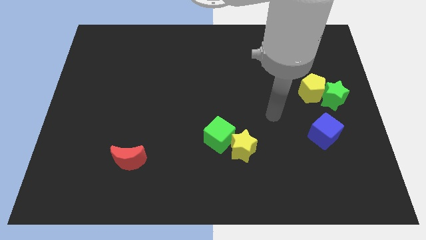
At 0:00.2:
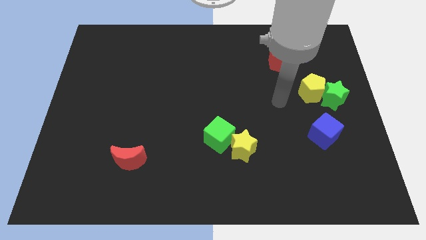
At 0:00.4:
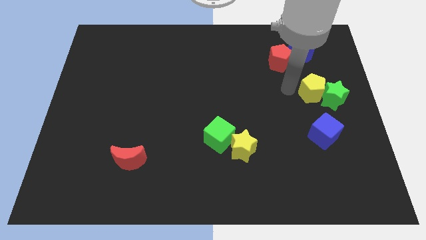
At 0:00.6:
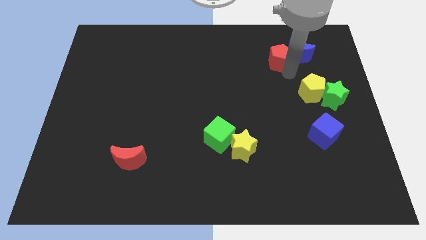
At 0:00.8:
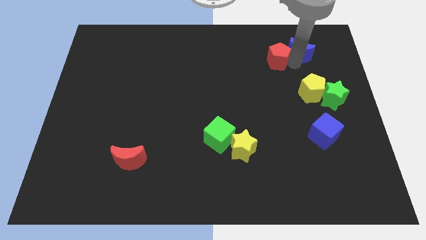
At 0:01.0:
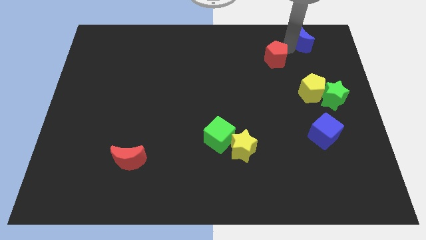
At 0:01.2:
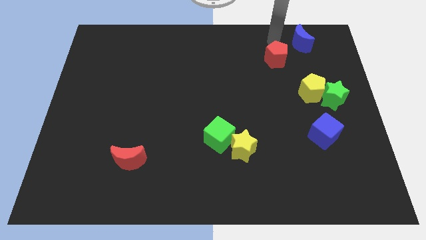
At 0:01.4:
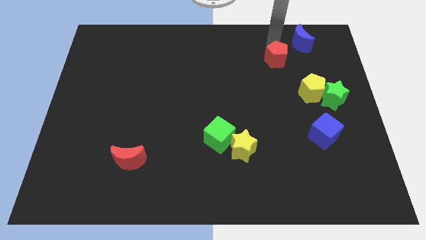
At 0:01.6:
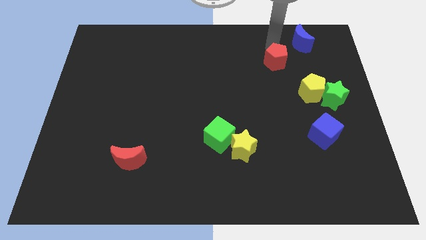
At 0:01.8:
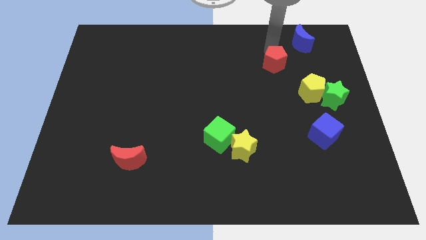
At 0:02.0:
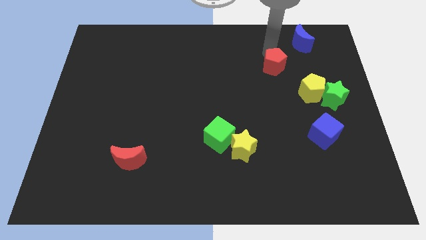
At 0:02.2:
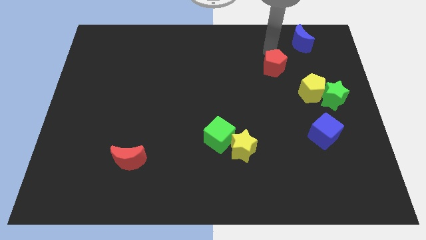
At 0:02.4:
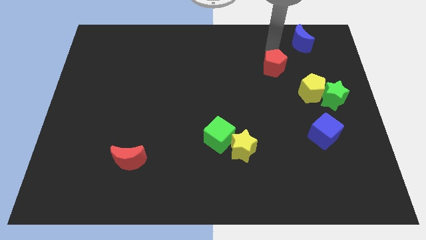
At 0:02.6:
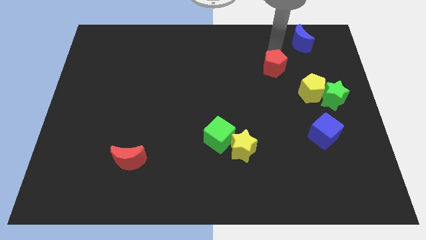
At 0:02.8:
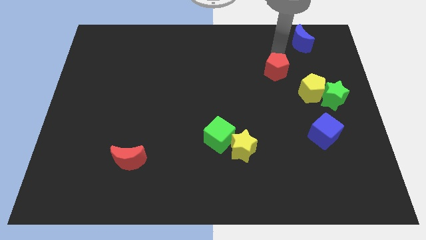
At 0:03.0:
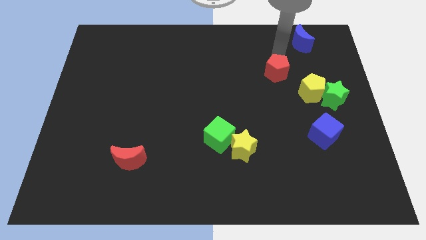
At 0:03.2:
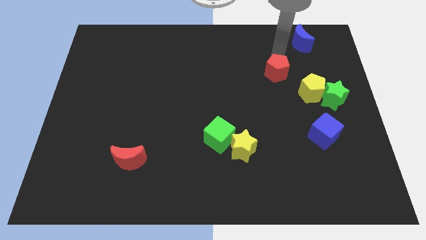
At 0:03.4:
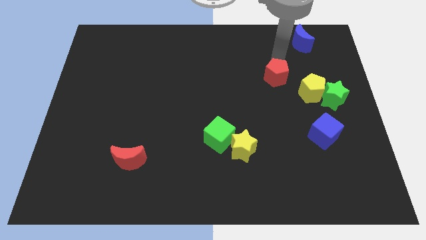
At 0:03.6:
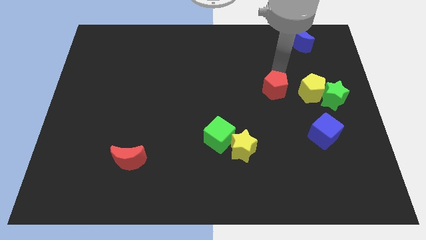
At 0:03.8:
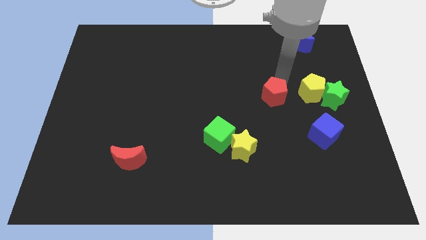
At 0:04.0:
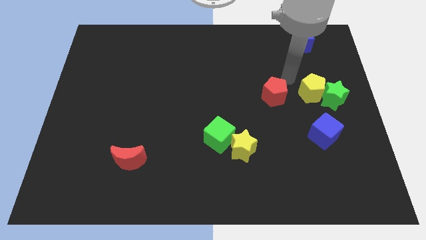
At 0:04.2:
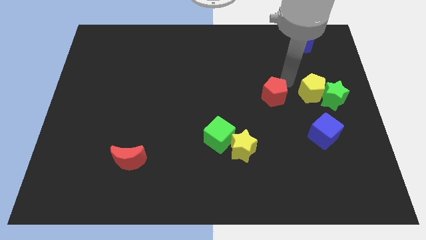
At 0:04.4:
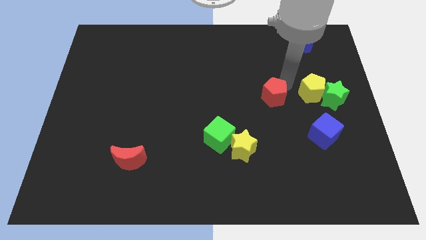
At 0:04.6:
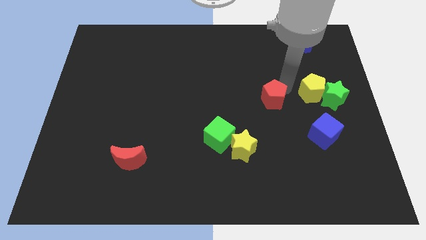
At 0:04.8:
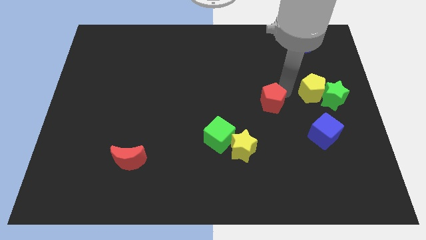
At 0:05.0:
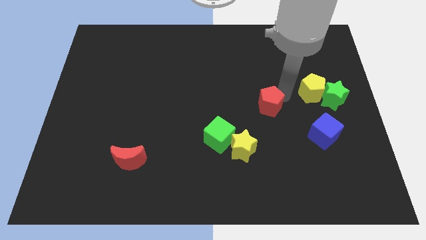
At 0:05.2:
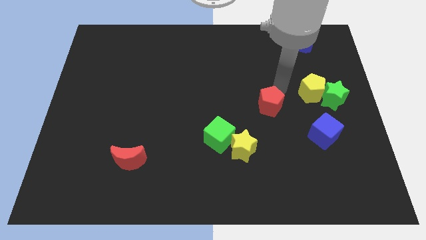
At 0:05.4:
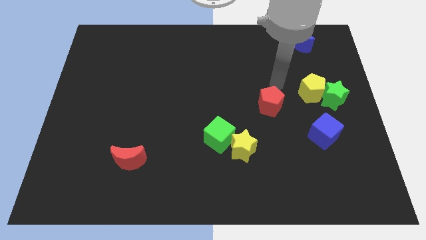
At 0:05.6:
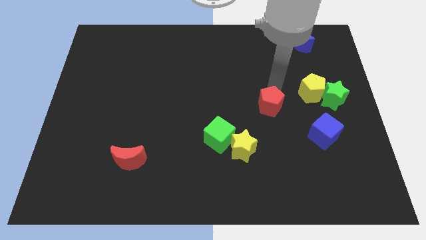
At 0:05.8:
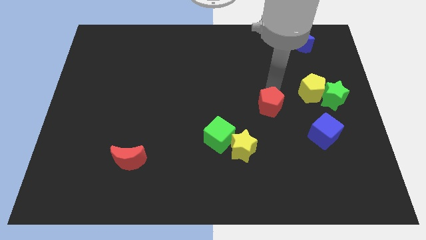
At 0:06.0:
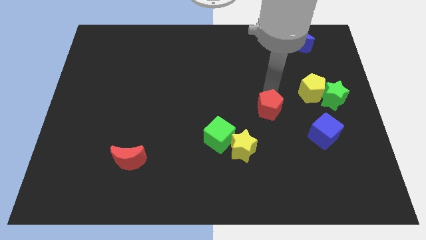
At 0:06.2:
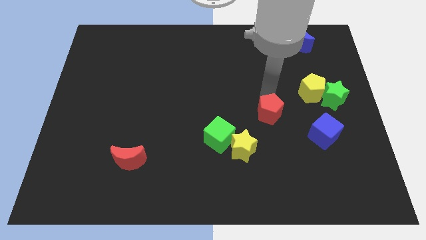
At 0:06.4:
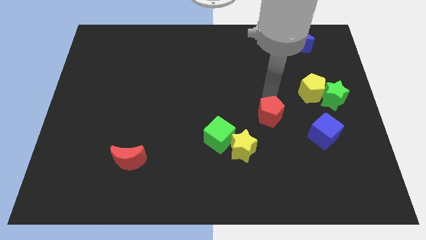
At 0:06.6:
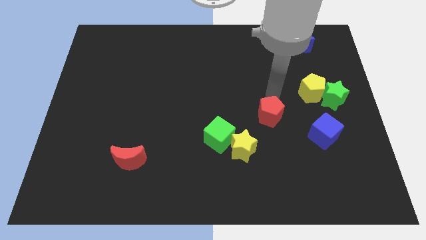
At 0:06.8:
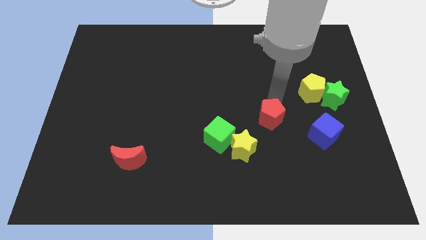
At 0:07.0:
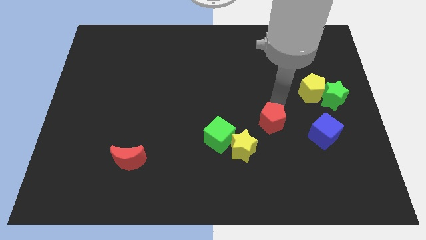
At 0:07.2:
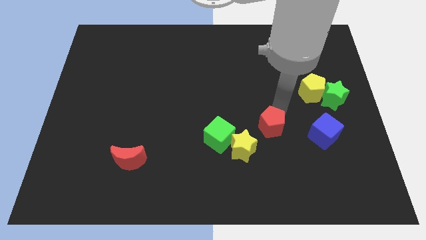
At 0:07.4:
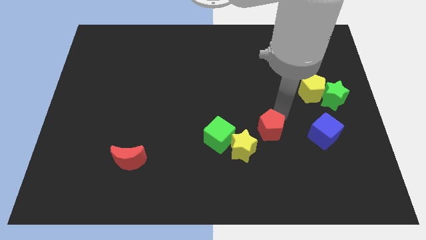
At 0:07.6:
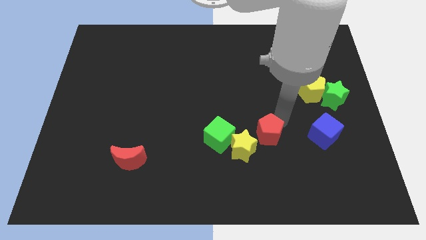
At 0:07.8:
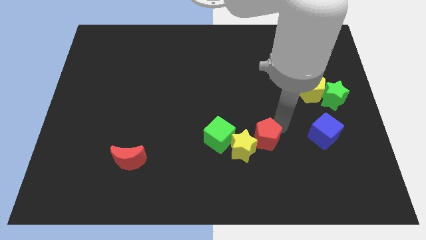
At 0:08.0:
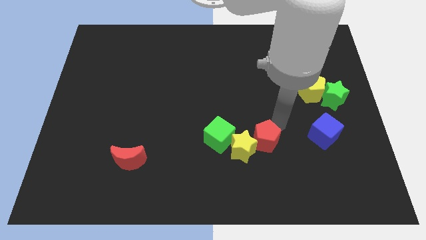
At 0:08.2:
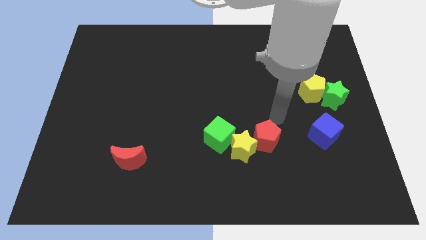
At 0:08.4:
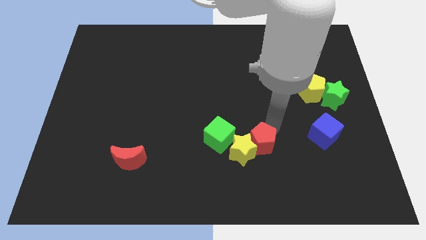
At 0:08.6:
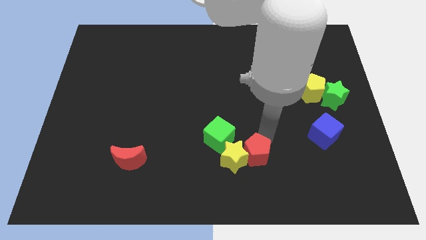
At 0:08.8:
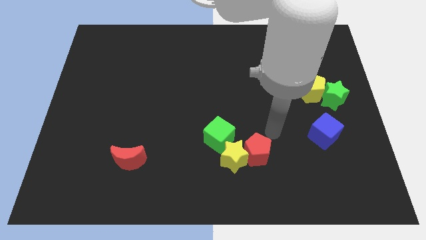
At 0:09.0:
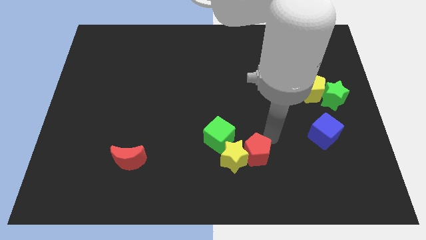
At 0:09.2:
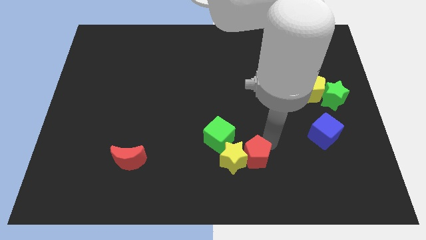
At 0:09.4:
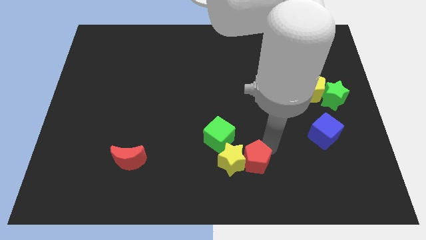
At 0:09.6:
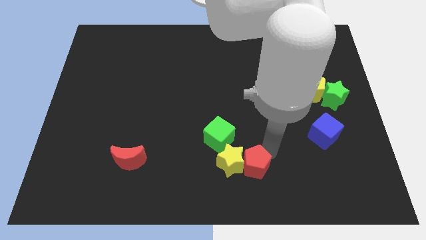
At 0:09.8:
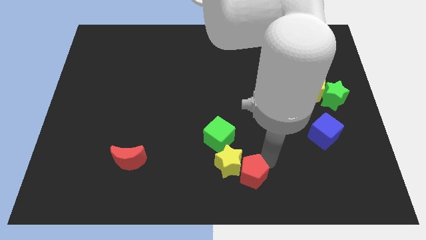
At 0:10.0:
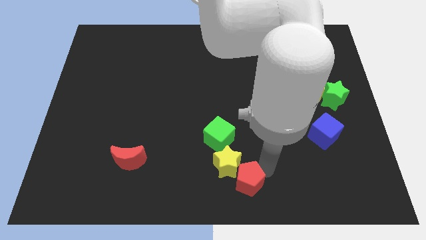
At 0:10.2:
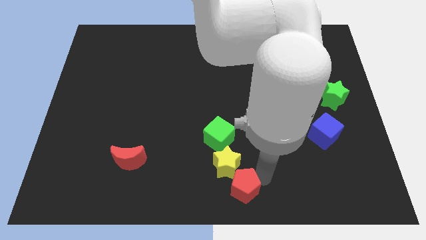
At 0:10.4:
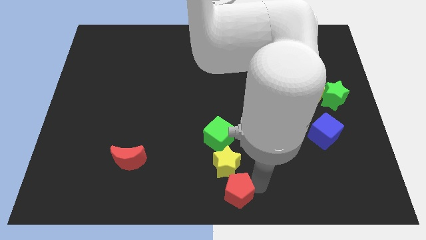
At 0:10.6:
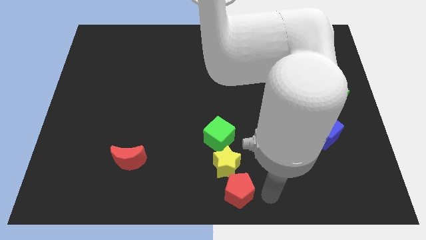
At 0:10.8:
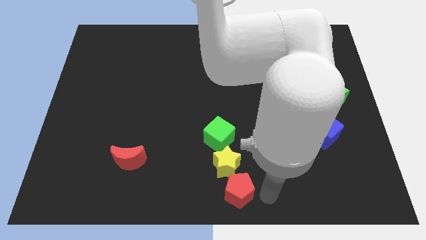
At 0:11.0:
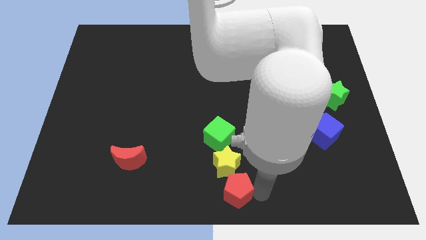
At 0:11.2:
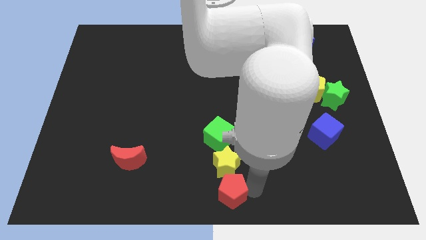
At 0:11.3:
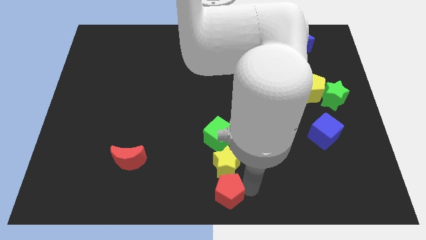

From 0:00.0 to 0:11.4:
put the red pentagon to the bottom left of the yellow star
